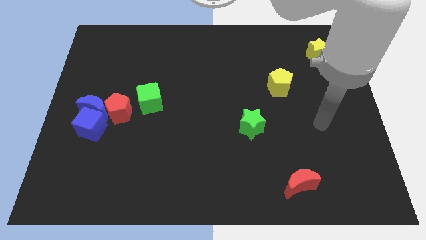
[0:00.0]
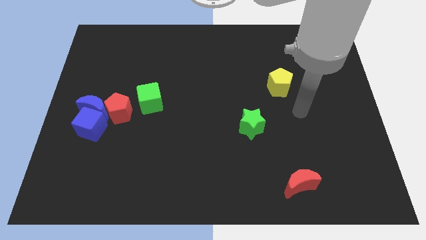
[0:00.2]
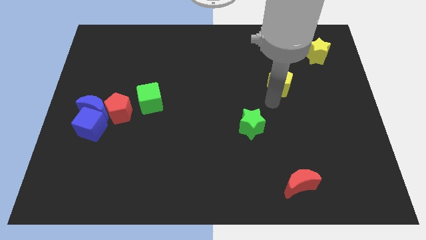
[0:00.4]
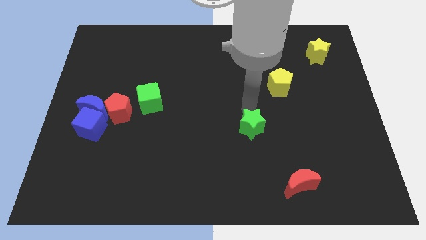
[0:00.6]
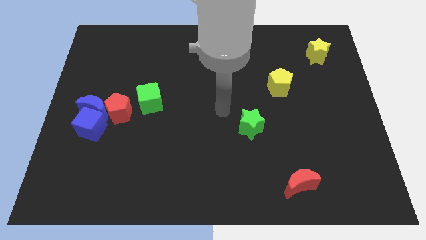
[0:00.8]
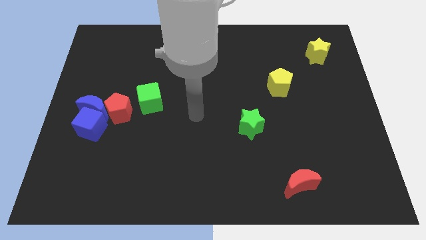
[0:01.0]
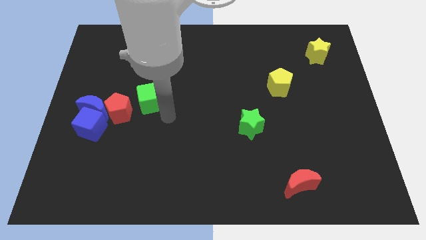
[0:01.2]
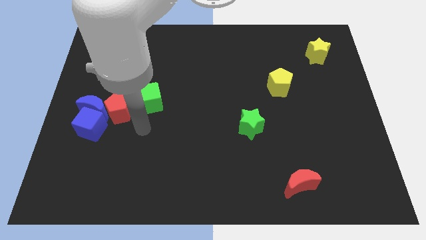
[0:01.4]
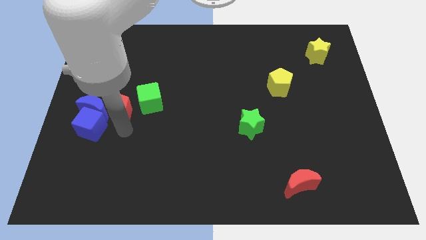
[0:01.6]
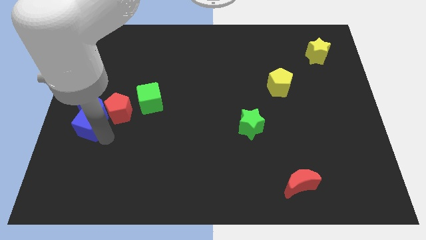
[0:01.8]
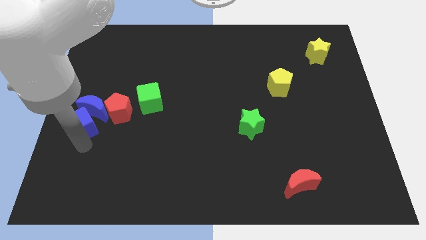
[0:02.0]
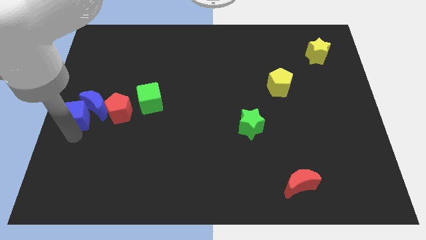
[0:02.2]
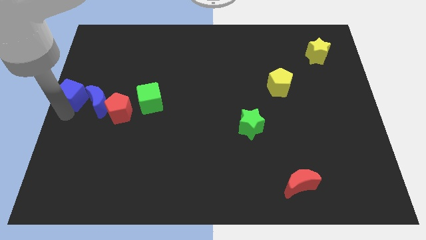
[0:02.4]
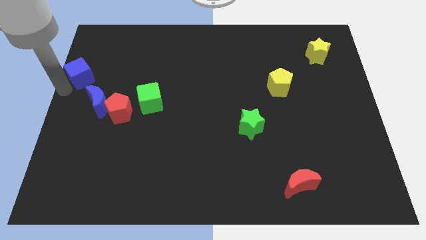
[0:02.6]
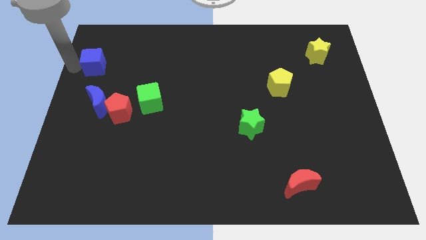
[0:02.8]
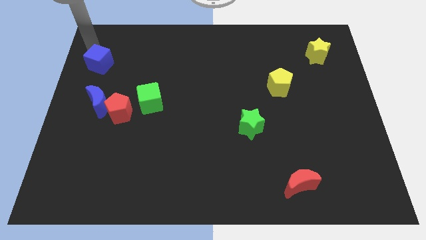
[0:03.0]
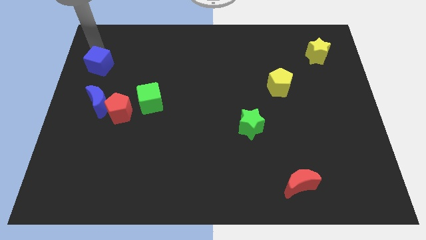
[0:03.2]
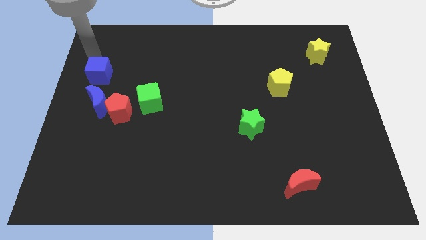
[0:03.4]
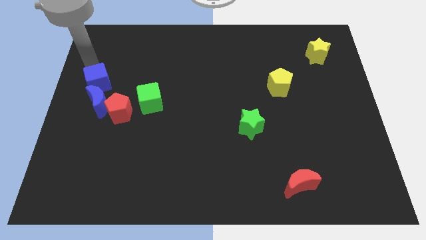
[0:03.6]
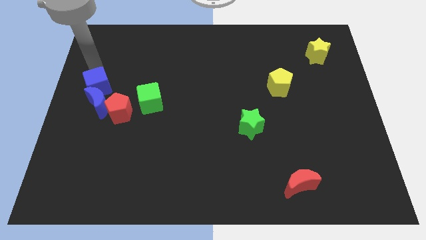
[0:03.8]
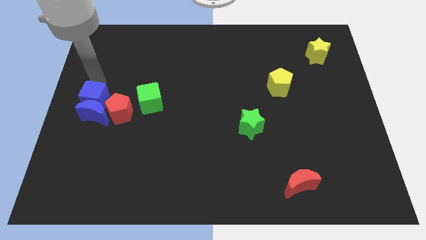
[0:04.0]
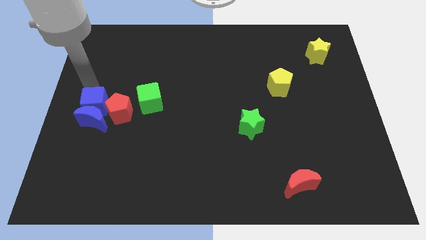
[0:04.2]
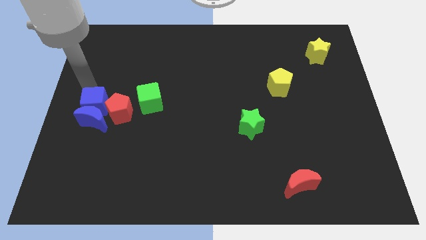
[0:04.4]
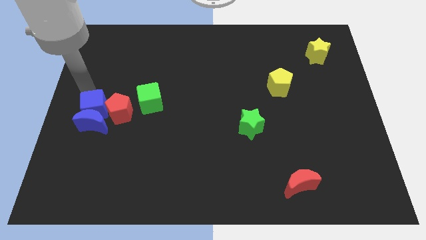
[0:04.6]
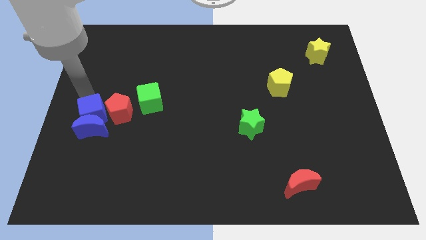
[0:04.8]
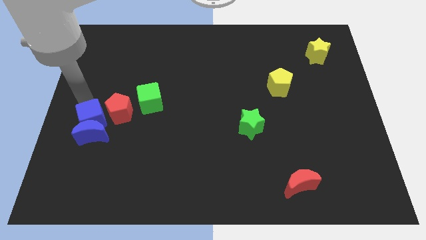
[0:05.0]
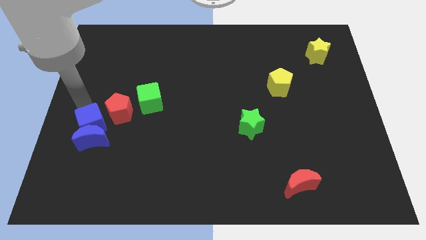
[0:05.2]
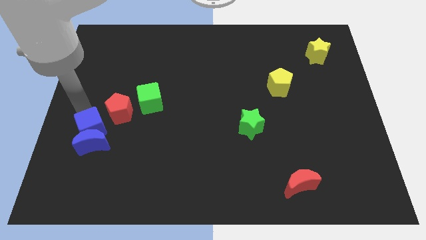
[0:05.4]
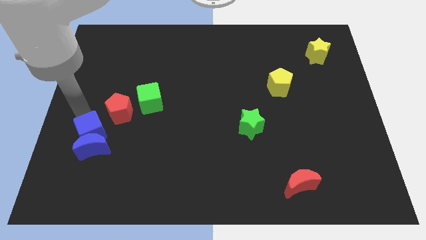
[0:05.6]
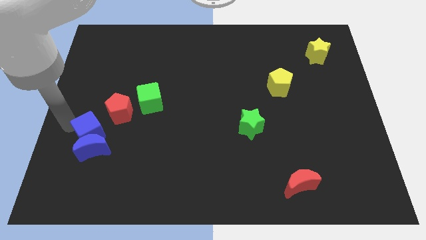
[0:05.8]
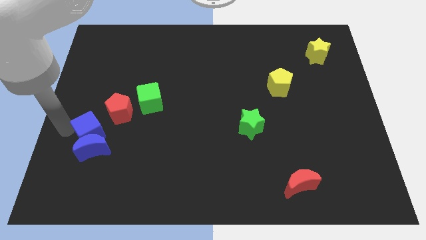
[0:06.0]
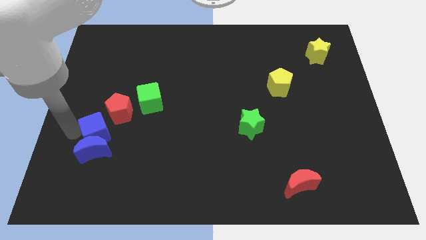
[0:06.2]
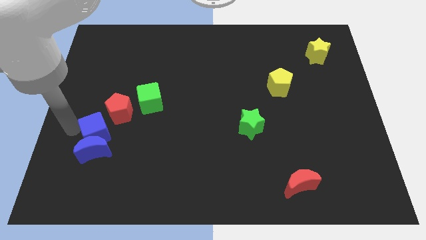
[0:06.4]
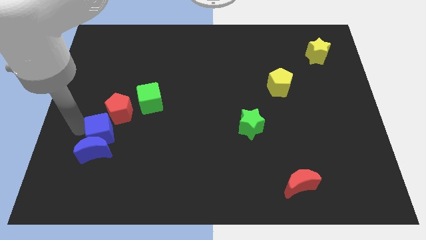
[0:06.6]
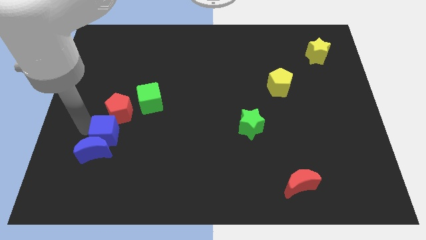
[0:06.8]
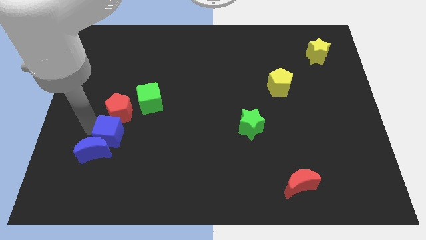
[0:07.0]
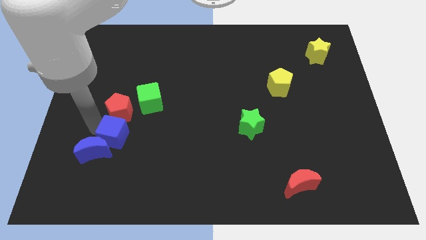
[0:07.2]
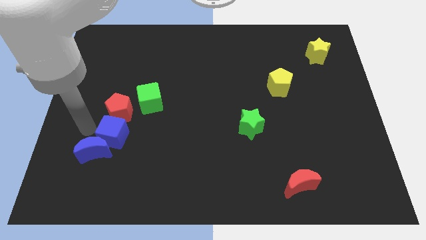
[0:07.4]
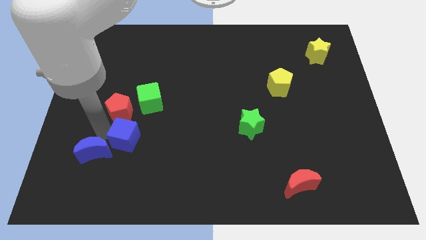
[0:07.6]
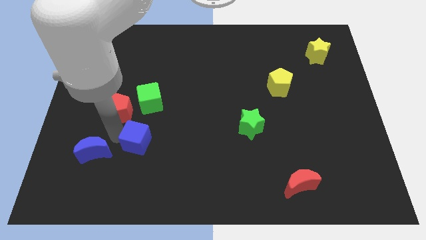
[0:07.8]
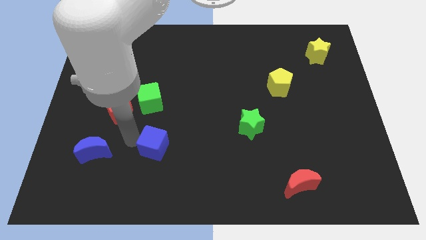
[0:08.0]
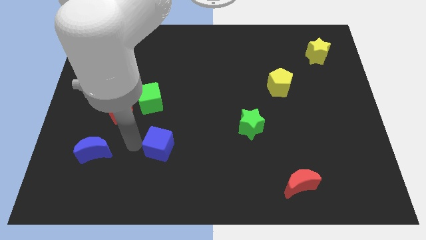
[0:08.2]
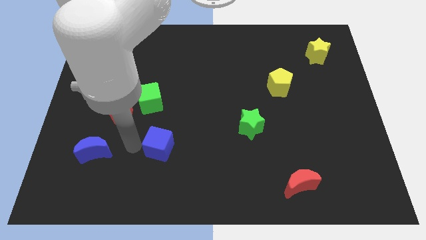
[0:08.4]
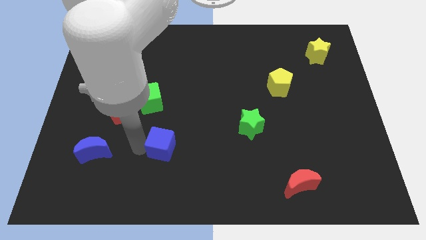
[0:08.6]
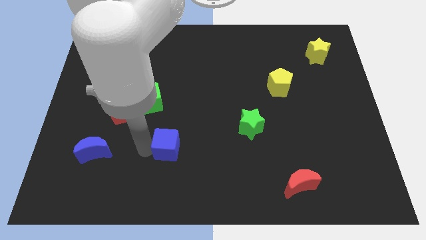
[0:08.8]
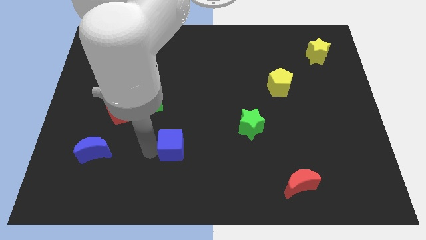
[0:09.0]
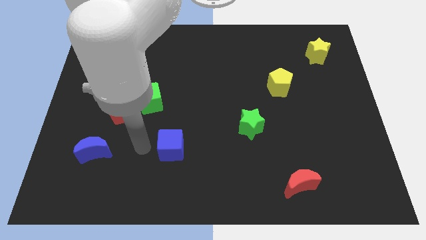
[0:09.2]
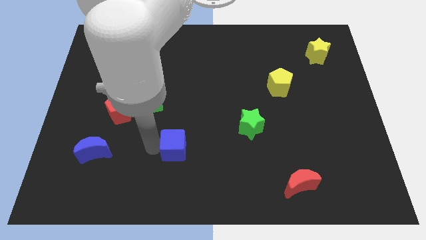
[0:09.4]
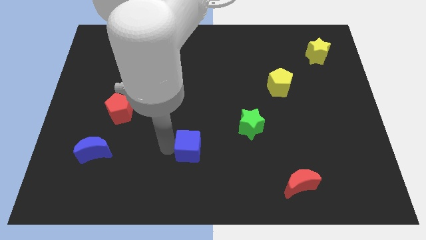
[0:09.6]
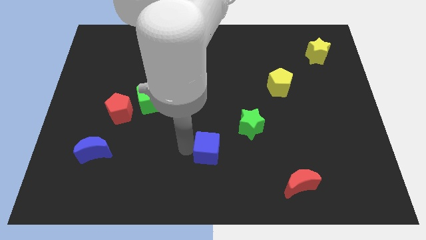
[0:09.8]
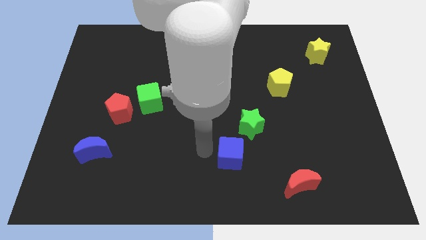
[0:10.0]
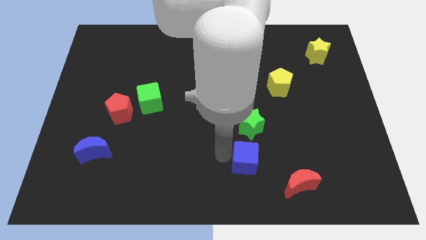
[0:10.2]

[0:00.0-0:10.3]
put the blue cube to the top left of the red moon

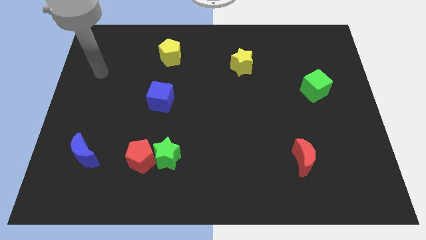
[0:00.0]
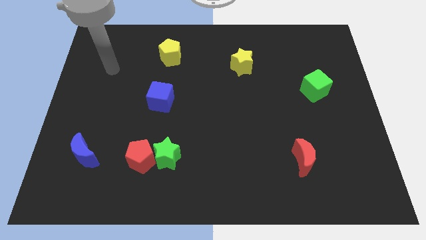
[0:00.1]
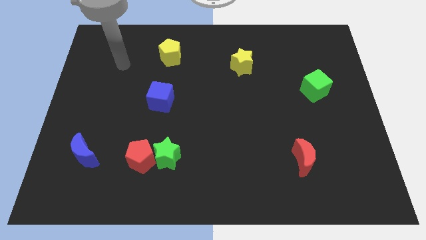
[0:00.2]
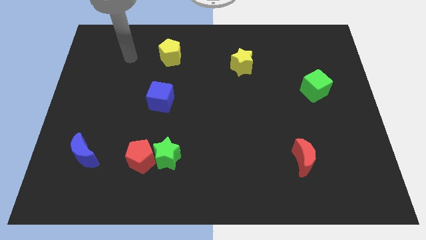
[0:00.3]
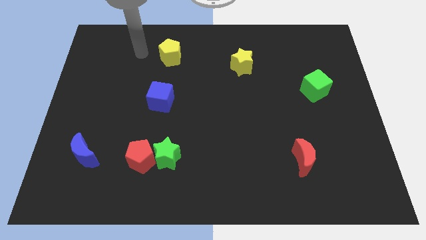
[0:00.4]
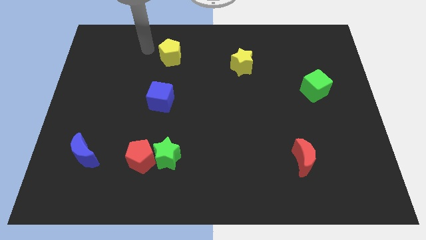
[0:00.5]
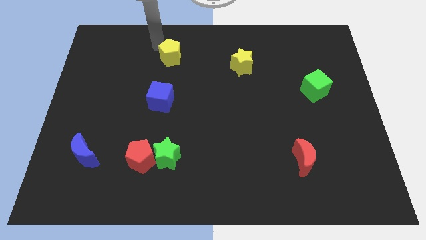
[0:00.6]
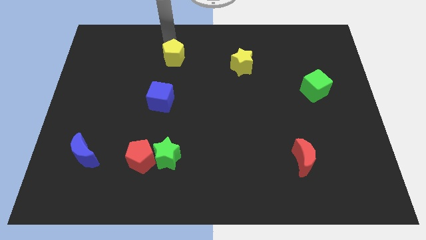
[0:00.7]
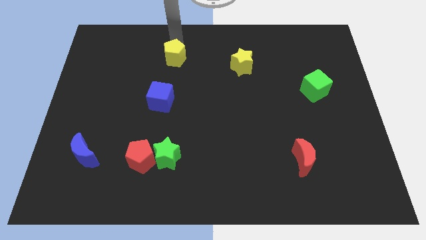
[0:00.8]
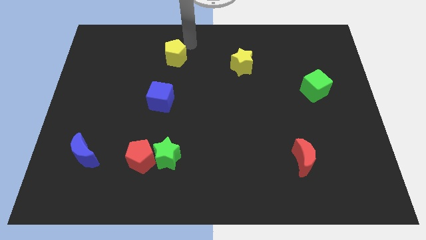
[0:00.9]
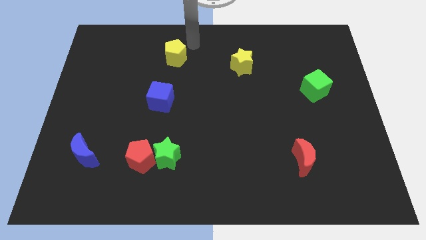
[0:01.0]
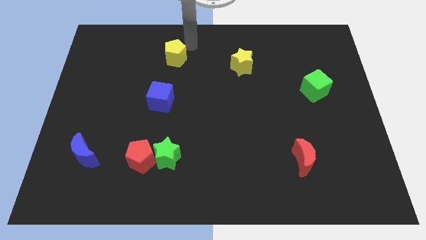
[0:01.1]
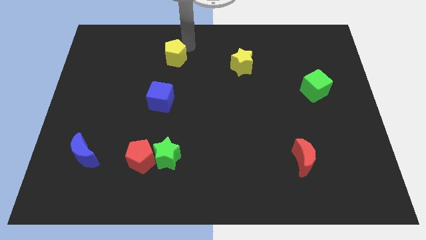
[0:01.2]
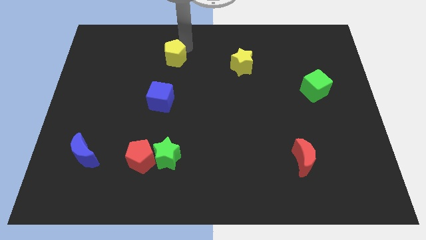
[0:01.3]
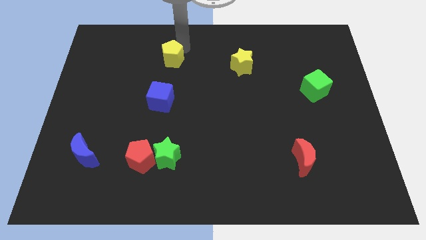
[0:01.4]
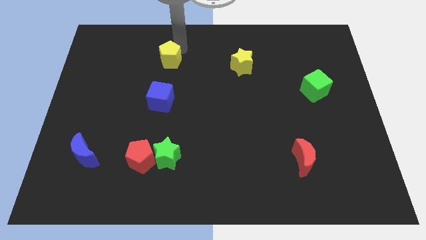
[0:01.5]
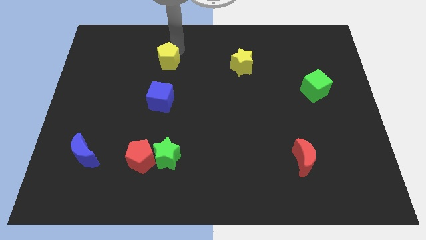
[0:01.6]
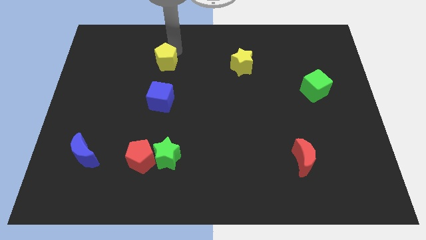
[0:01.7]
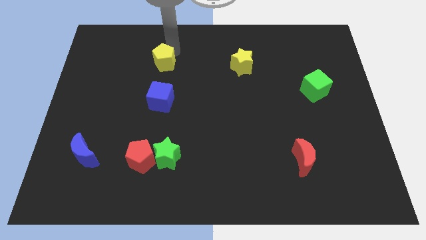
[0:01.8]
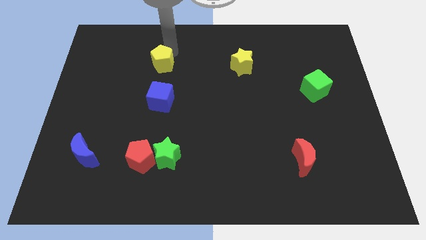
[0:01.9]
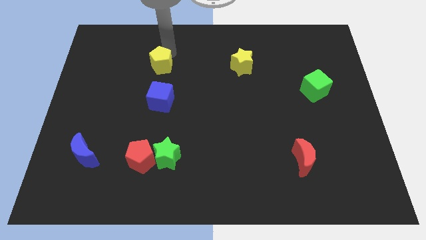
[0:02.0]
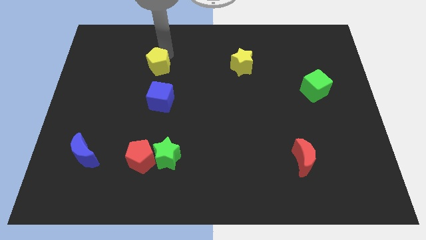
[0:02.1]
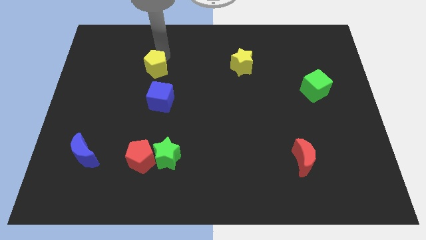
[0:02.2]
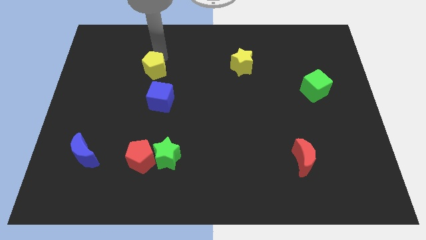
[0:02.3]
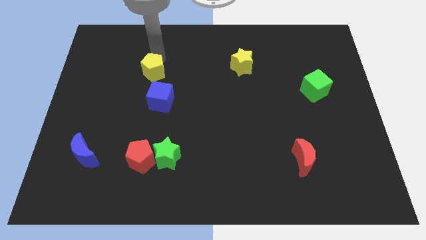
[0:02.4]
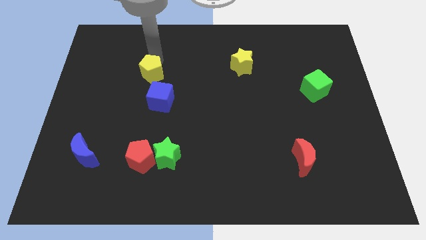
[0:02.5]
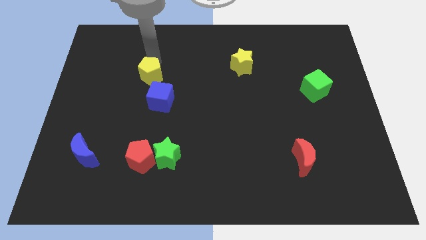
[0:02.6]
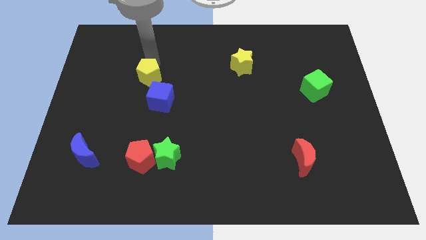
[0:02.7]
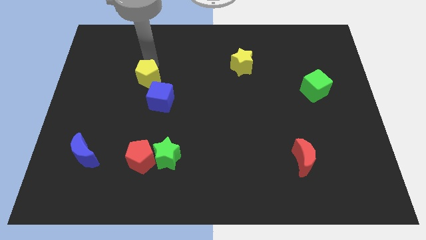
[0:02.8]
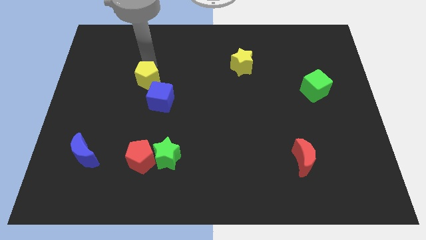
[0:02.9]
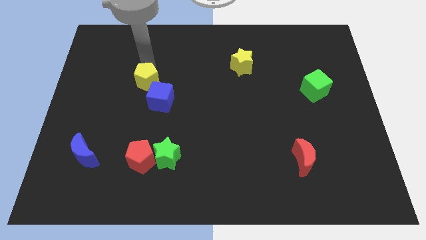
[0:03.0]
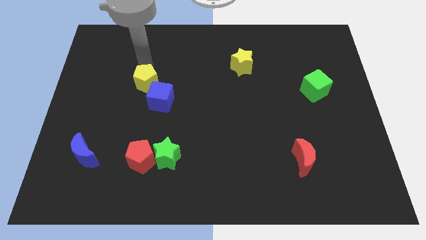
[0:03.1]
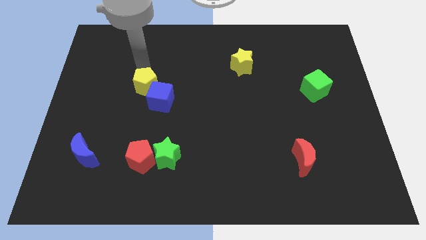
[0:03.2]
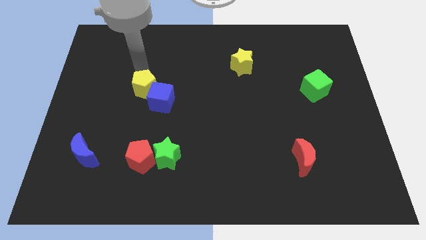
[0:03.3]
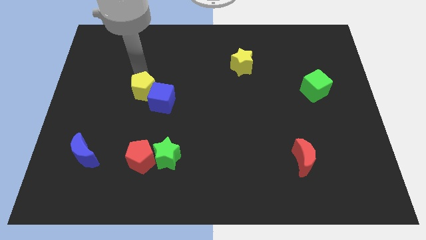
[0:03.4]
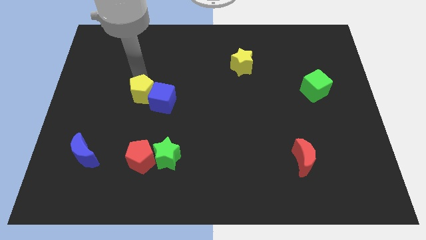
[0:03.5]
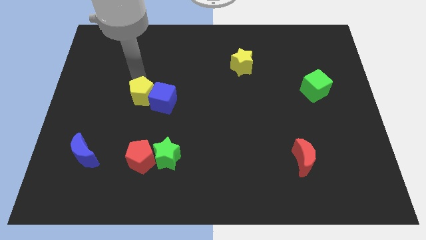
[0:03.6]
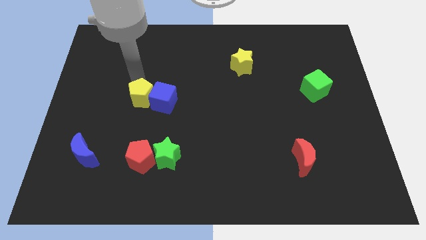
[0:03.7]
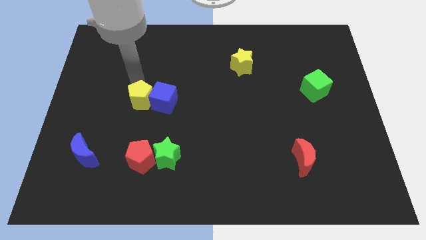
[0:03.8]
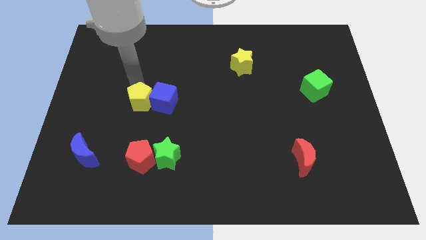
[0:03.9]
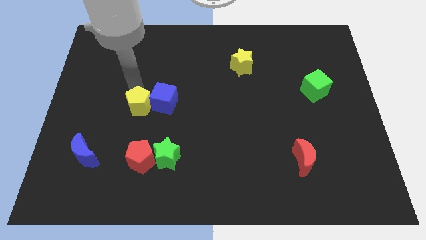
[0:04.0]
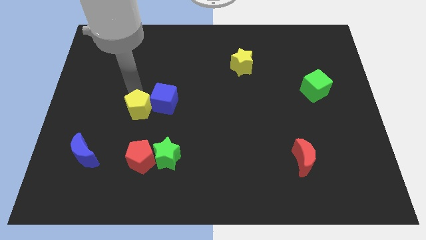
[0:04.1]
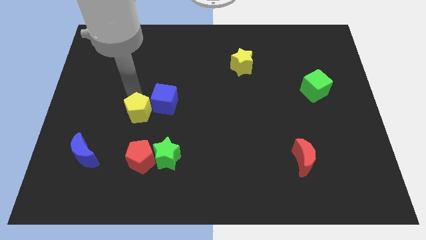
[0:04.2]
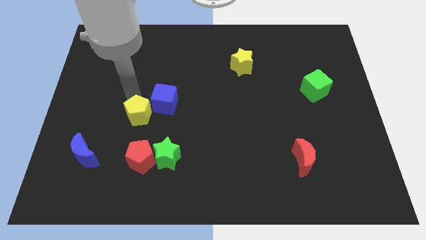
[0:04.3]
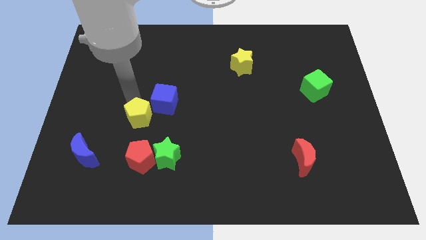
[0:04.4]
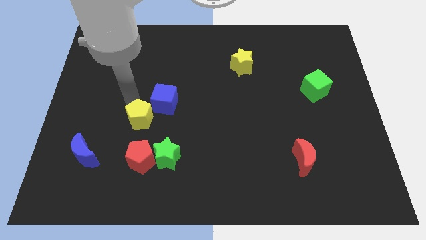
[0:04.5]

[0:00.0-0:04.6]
put the yellow pentagon to the top left side of the green star
